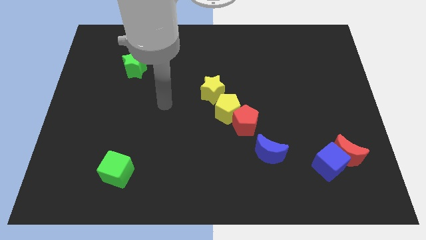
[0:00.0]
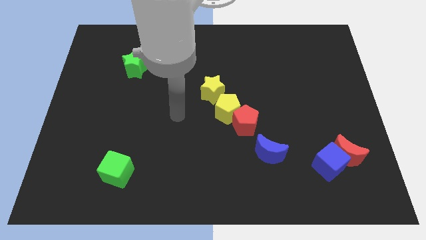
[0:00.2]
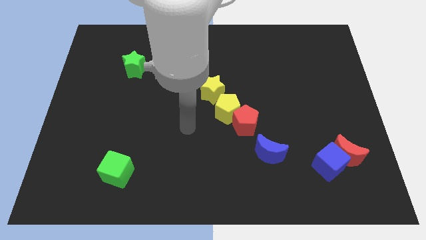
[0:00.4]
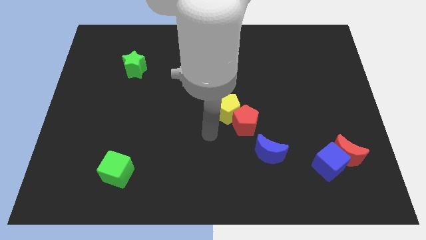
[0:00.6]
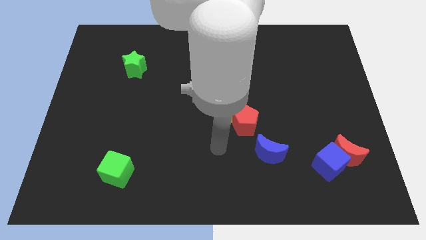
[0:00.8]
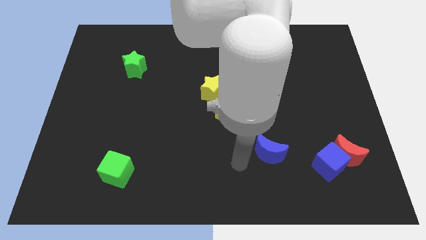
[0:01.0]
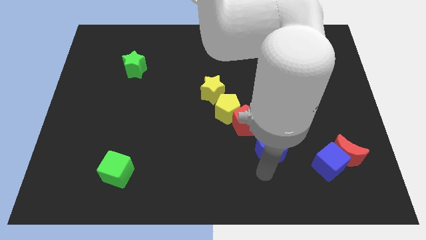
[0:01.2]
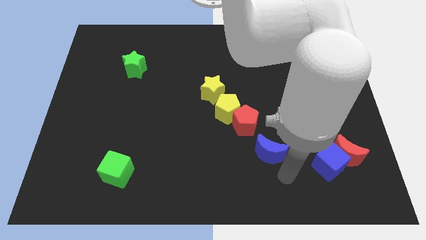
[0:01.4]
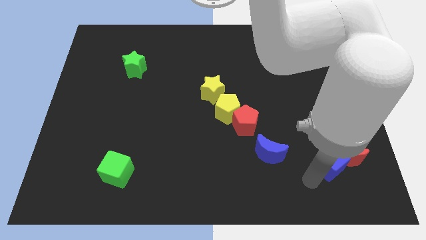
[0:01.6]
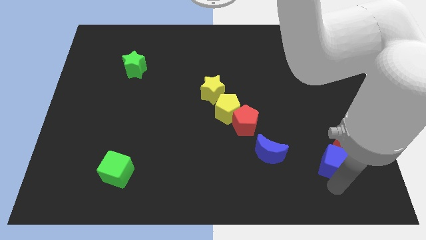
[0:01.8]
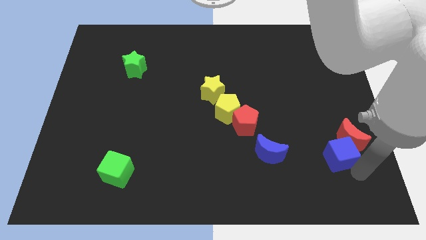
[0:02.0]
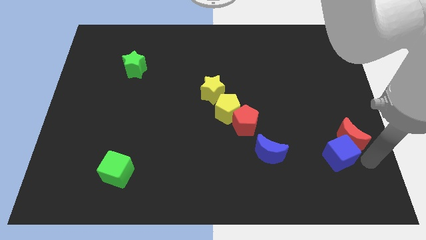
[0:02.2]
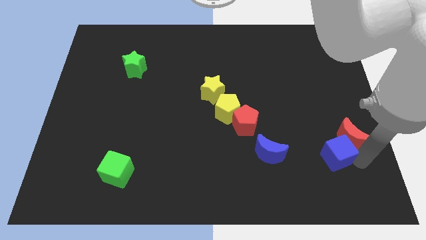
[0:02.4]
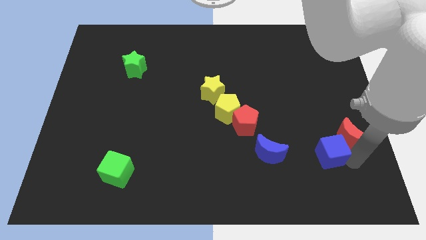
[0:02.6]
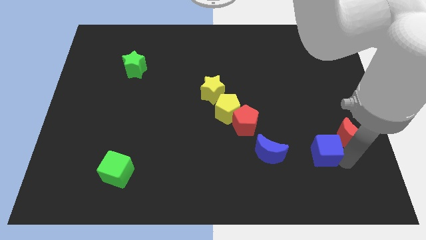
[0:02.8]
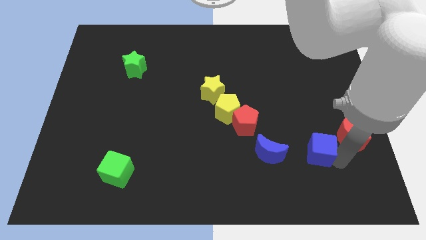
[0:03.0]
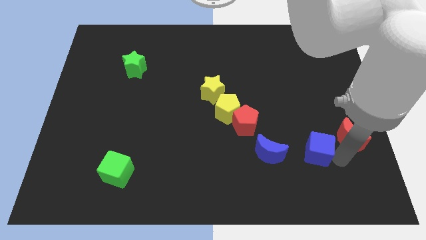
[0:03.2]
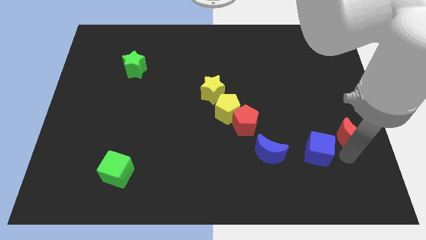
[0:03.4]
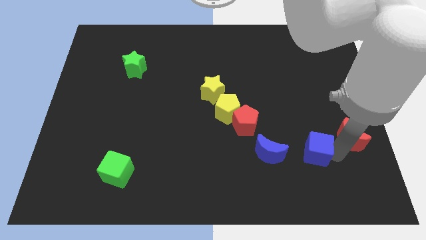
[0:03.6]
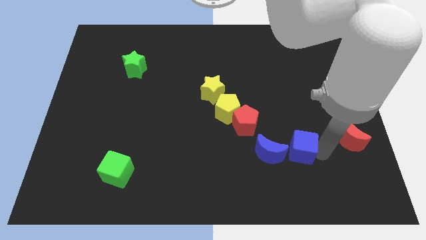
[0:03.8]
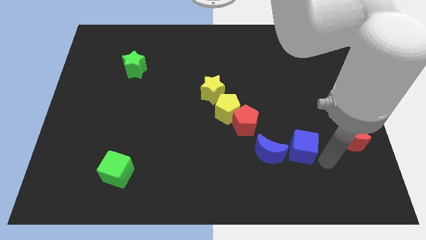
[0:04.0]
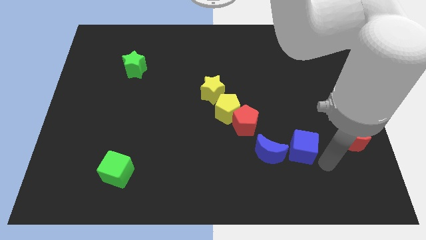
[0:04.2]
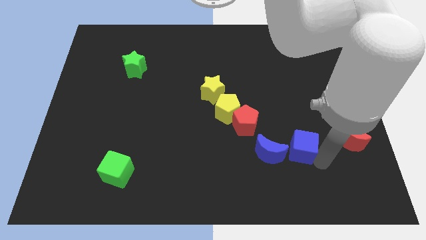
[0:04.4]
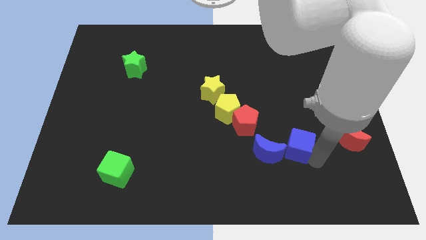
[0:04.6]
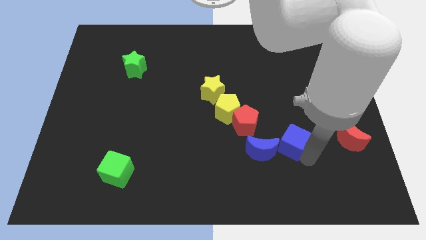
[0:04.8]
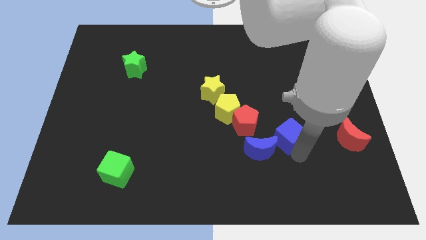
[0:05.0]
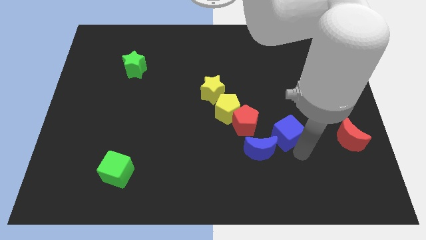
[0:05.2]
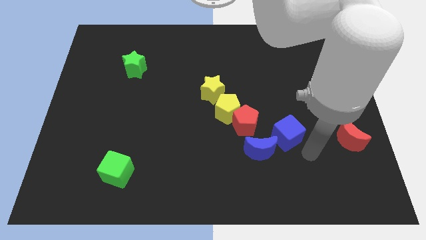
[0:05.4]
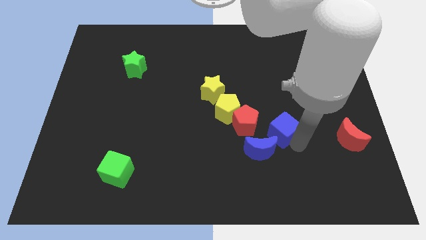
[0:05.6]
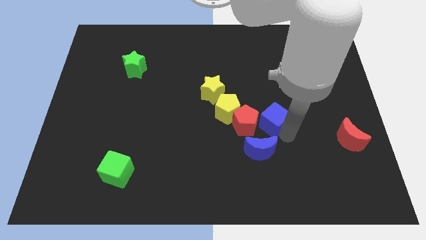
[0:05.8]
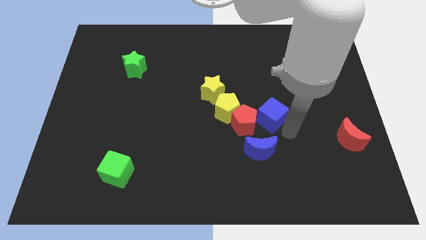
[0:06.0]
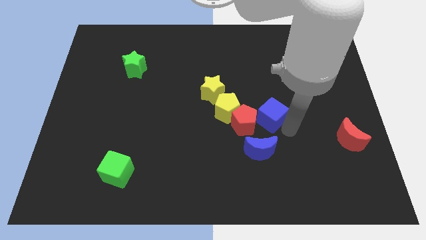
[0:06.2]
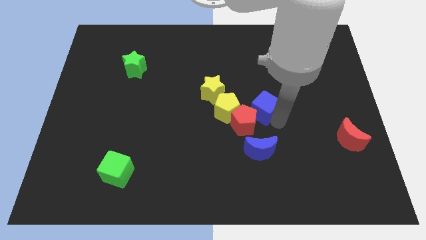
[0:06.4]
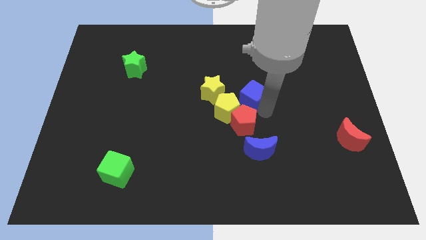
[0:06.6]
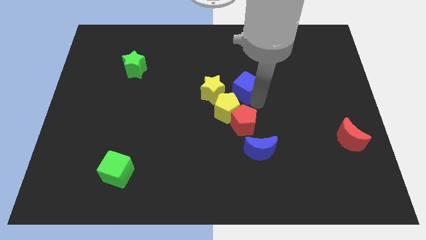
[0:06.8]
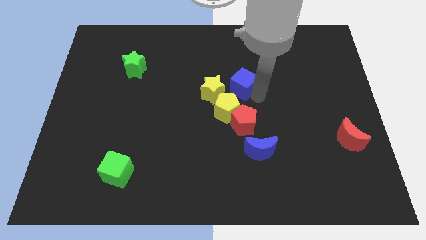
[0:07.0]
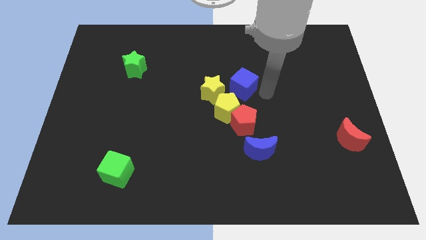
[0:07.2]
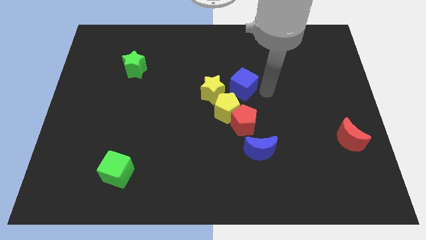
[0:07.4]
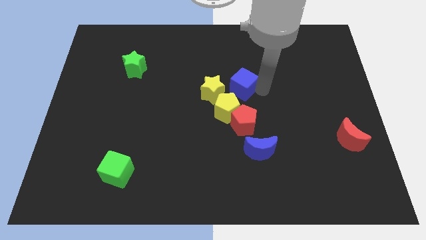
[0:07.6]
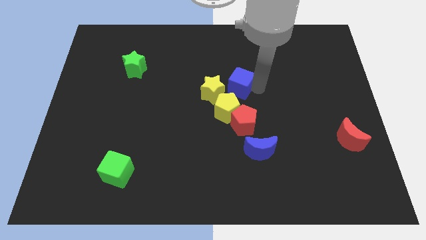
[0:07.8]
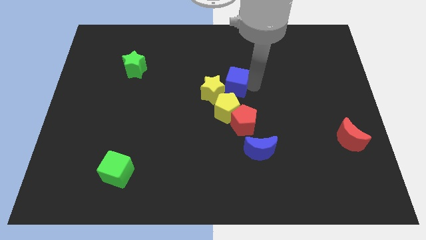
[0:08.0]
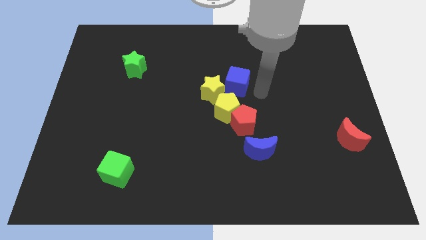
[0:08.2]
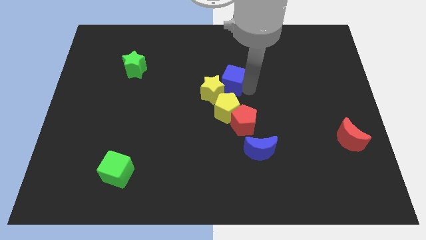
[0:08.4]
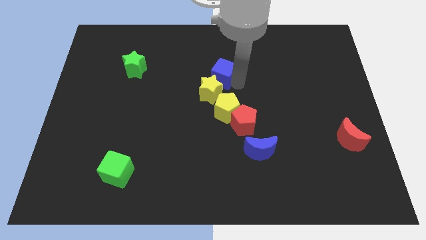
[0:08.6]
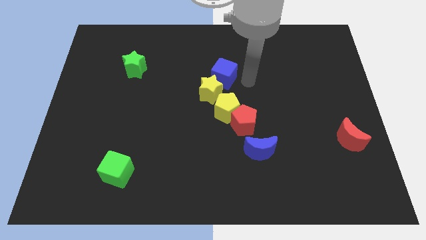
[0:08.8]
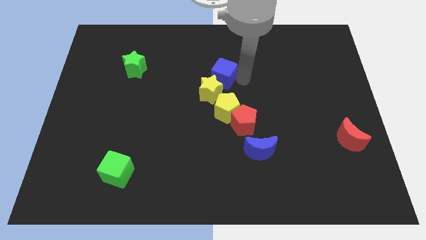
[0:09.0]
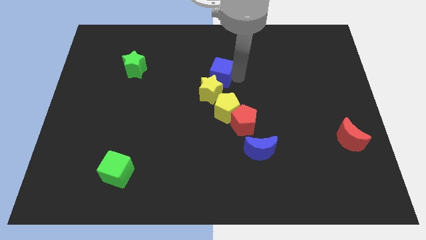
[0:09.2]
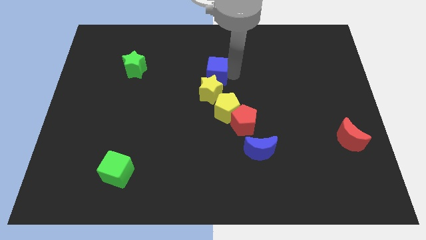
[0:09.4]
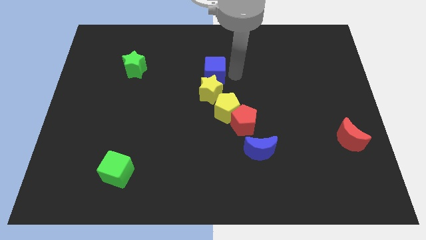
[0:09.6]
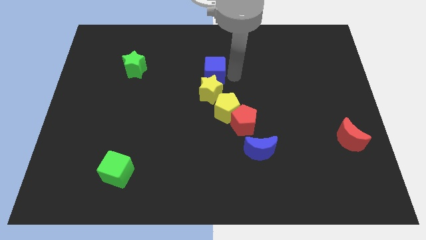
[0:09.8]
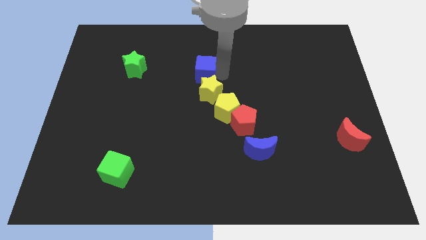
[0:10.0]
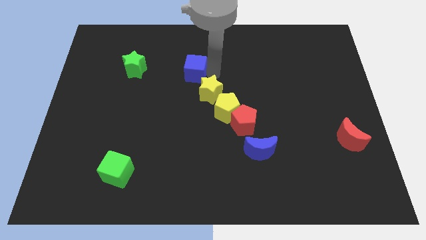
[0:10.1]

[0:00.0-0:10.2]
move the blue cube to the right of the green star

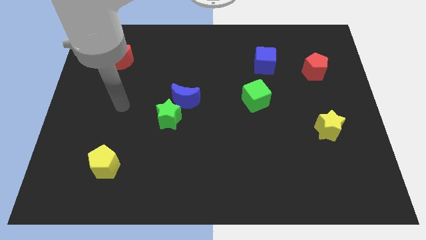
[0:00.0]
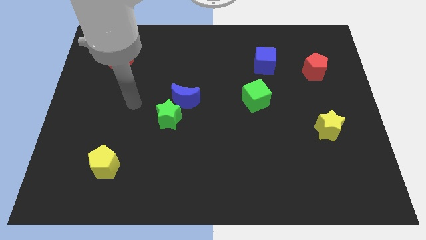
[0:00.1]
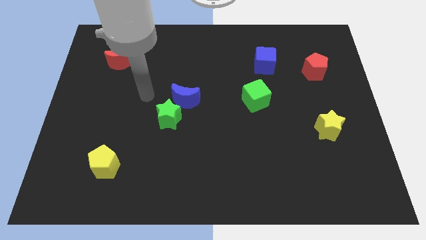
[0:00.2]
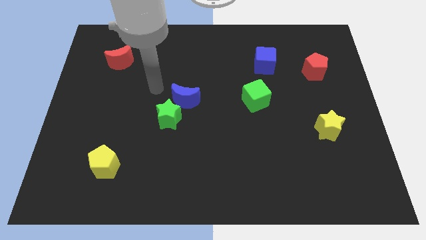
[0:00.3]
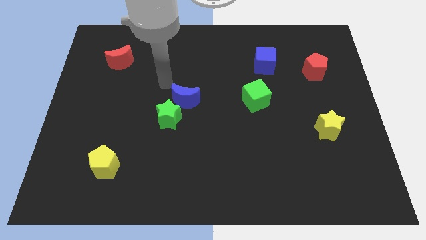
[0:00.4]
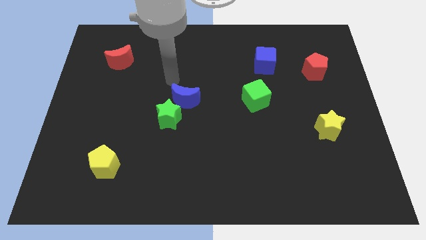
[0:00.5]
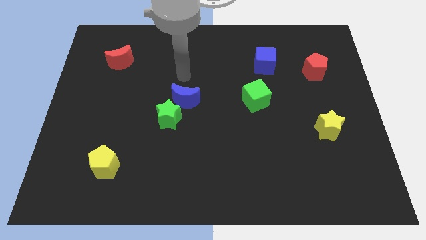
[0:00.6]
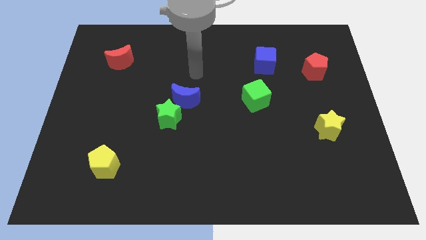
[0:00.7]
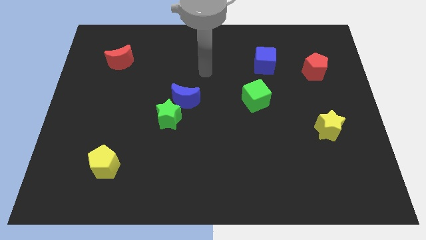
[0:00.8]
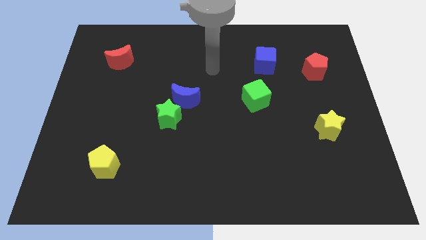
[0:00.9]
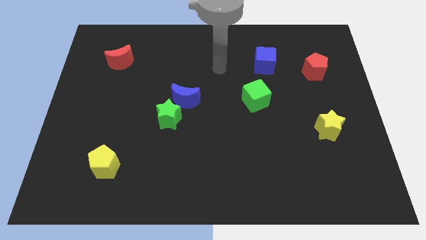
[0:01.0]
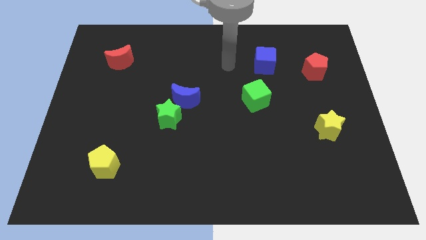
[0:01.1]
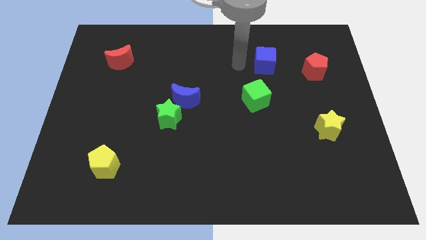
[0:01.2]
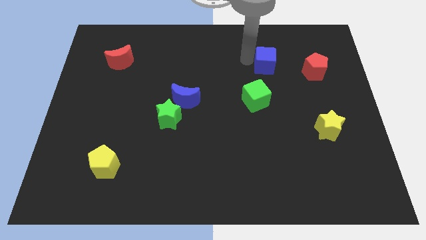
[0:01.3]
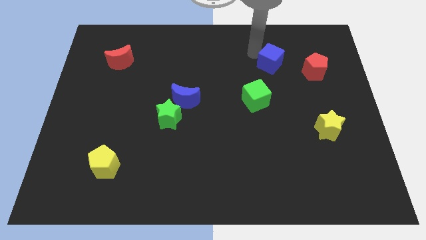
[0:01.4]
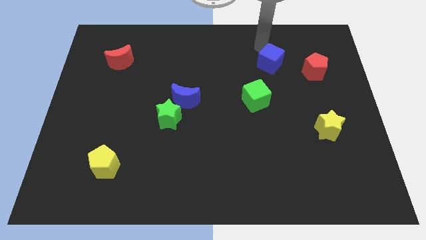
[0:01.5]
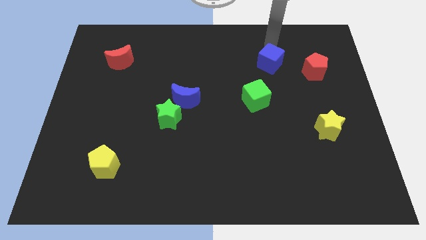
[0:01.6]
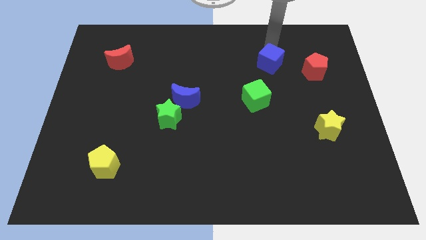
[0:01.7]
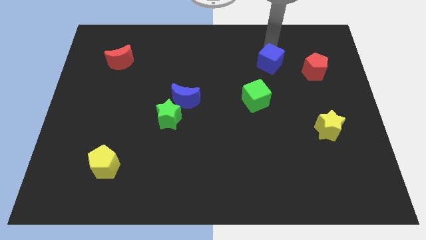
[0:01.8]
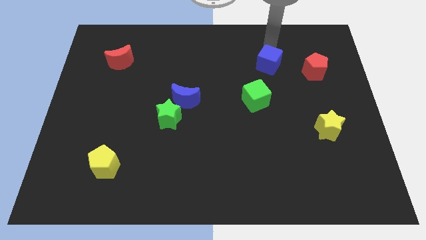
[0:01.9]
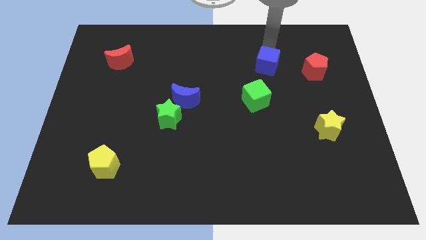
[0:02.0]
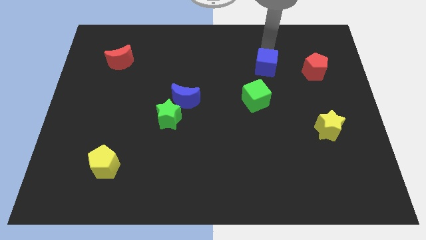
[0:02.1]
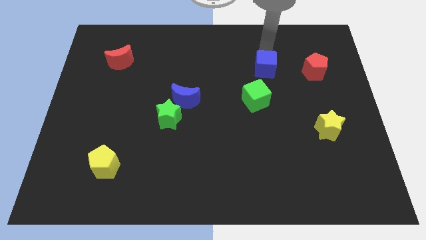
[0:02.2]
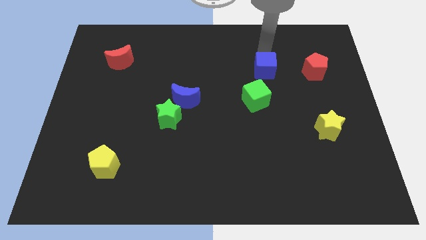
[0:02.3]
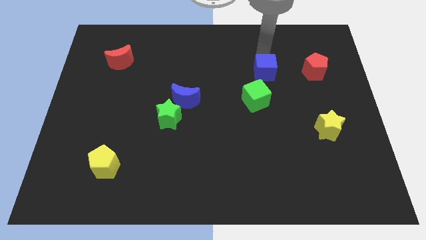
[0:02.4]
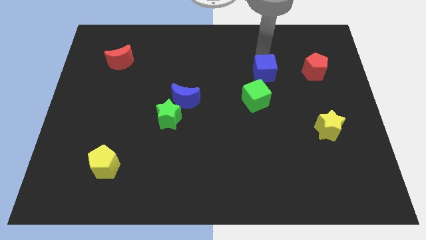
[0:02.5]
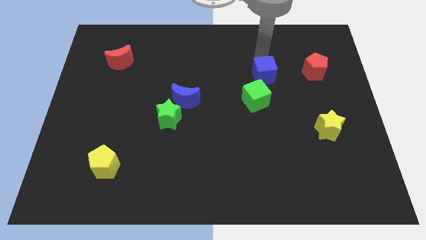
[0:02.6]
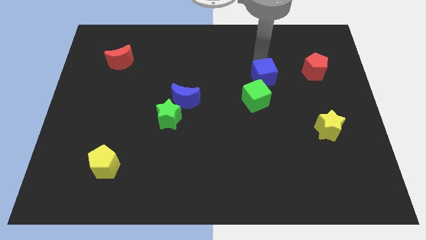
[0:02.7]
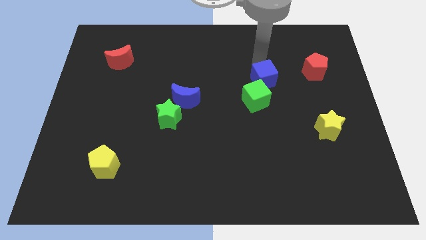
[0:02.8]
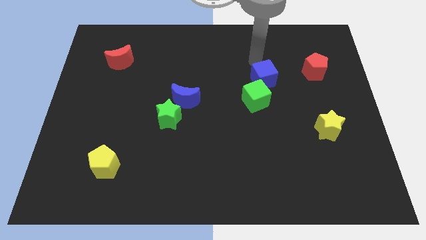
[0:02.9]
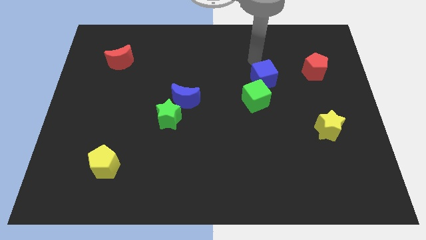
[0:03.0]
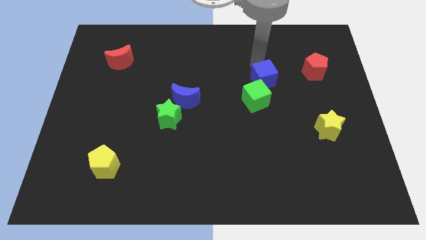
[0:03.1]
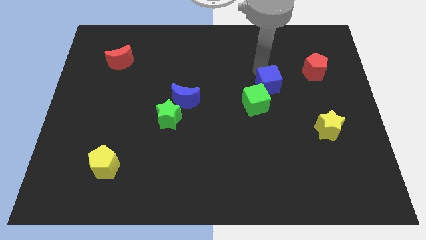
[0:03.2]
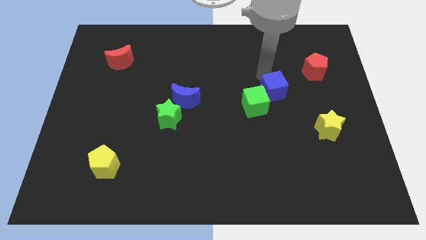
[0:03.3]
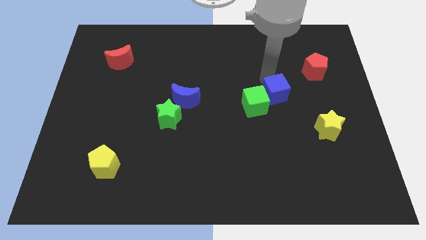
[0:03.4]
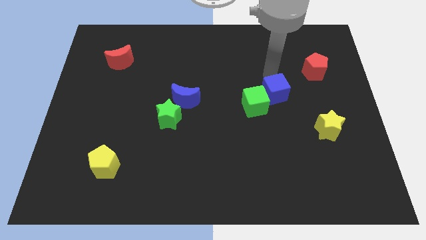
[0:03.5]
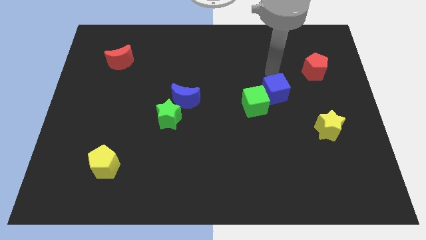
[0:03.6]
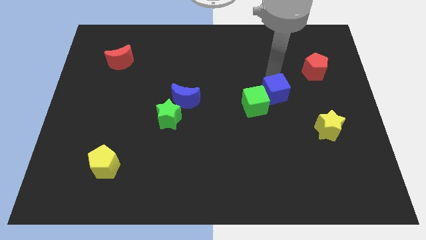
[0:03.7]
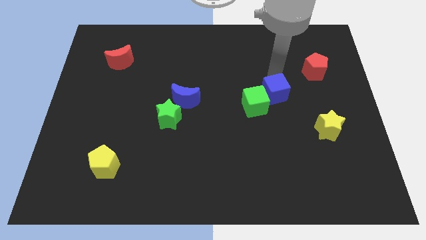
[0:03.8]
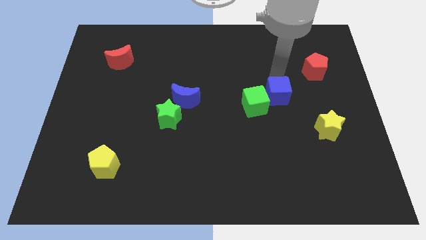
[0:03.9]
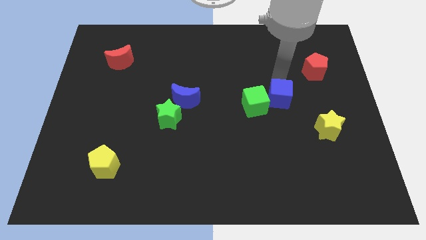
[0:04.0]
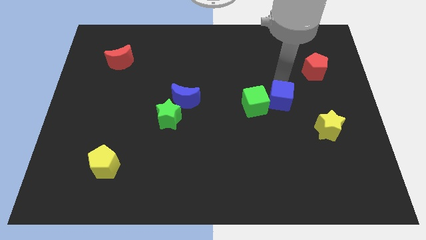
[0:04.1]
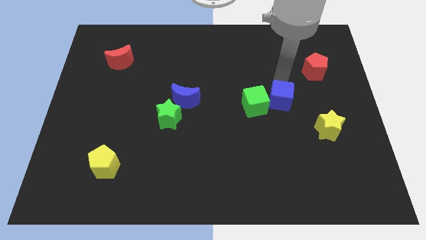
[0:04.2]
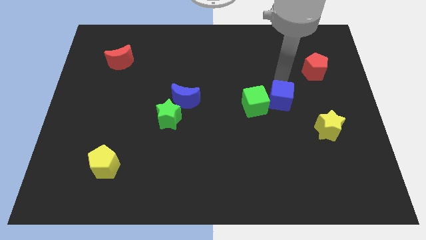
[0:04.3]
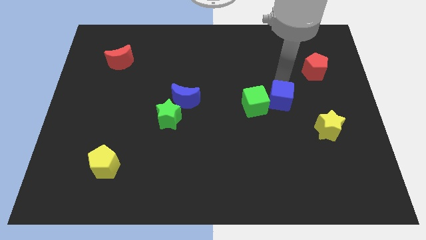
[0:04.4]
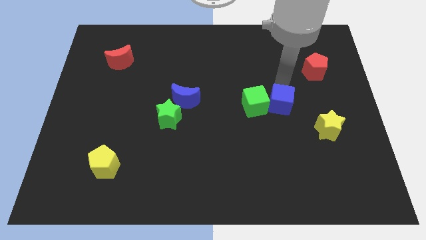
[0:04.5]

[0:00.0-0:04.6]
push the blue cube diagonally down and to the right of the green cube
